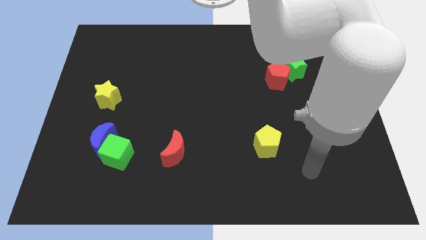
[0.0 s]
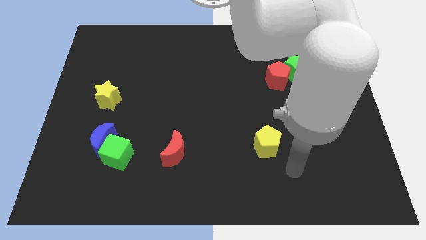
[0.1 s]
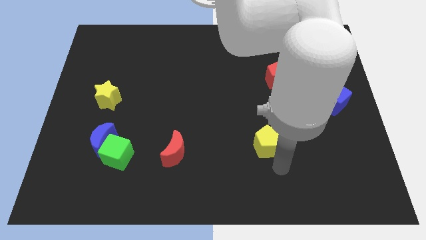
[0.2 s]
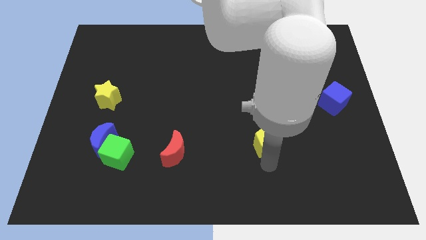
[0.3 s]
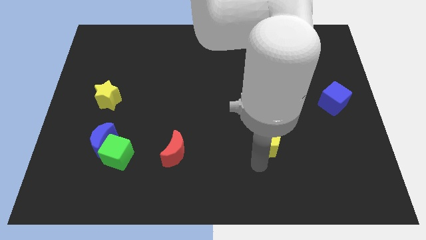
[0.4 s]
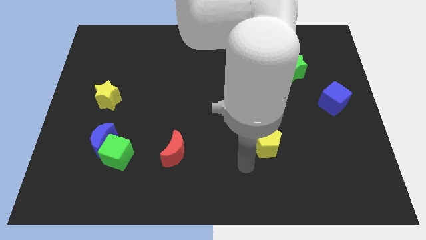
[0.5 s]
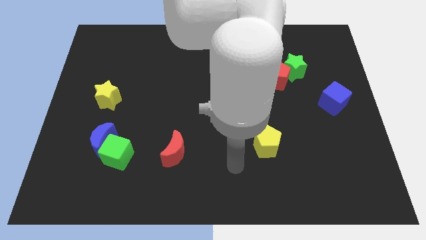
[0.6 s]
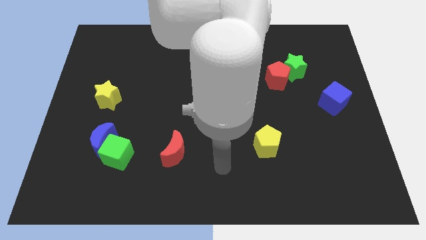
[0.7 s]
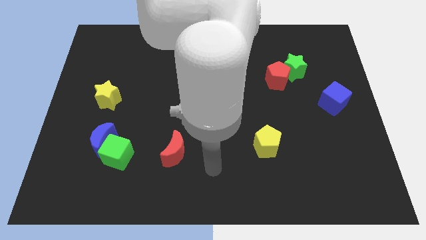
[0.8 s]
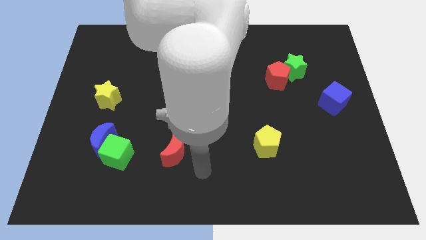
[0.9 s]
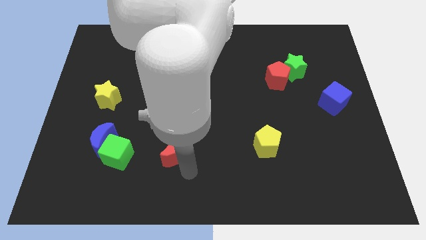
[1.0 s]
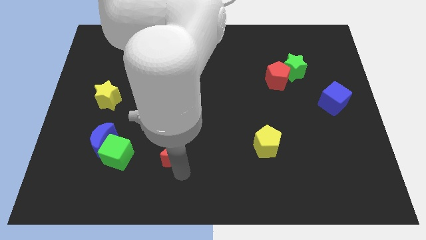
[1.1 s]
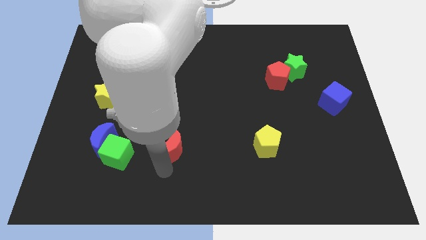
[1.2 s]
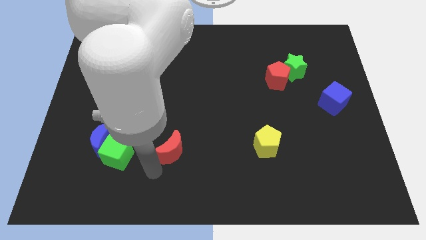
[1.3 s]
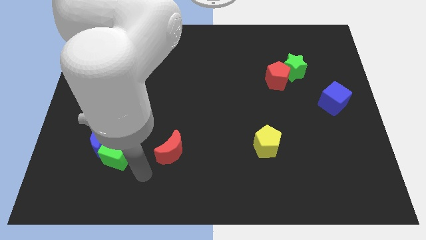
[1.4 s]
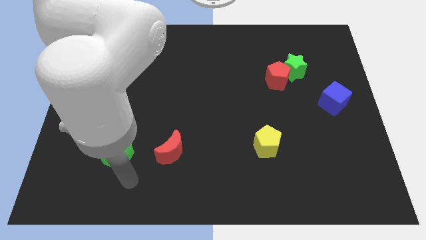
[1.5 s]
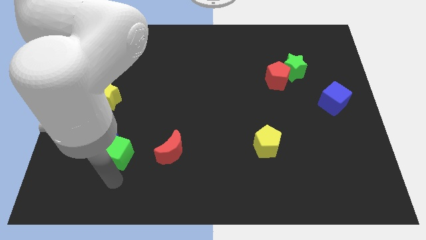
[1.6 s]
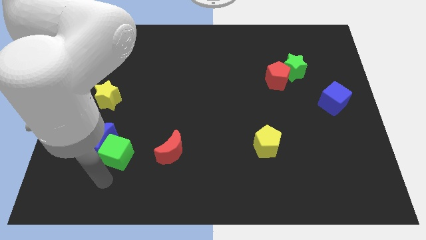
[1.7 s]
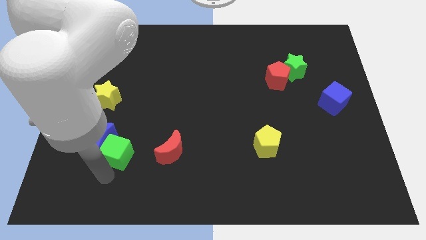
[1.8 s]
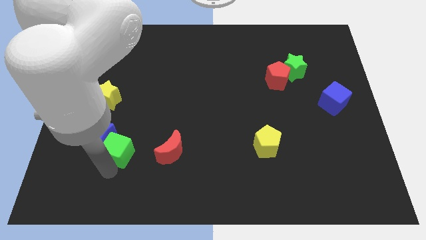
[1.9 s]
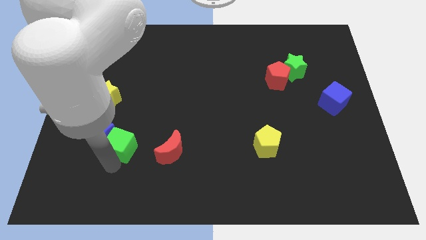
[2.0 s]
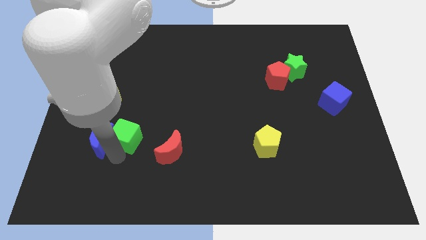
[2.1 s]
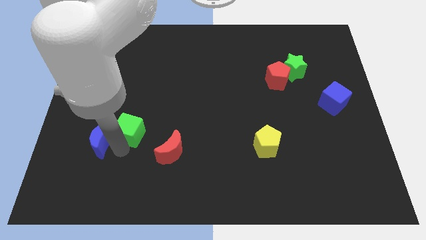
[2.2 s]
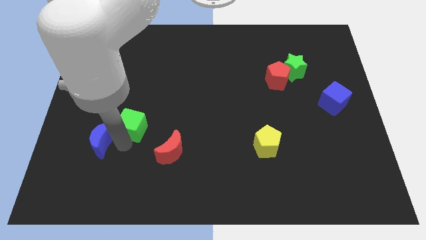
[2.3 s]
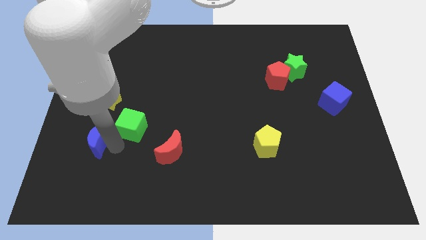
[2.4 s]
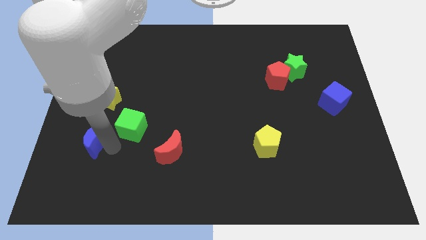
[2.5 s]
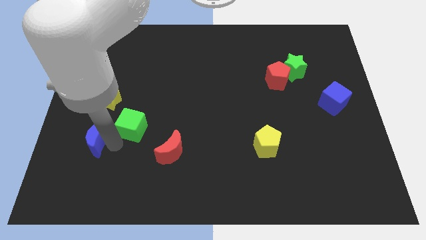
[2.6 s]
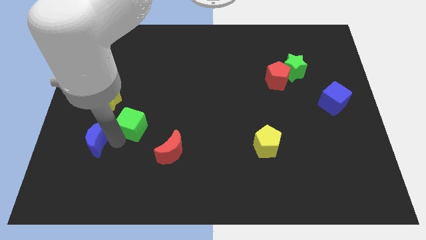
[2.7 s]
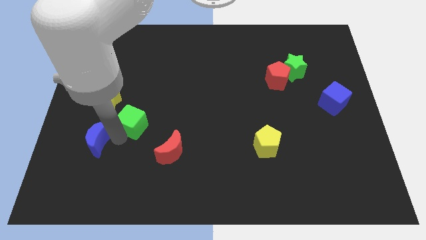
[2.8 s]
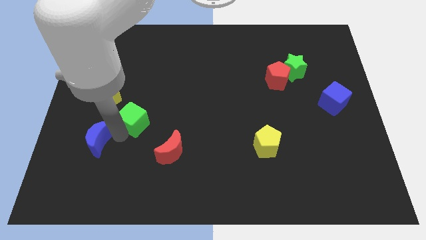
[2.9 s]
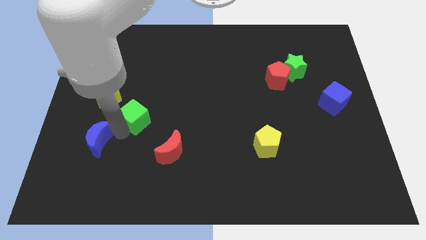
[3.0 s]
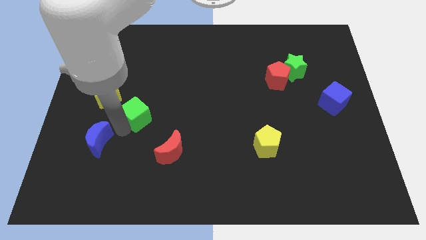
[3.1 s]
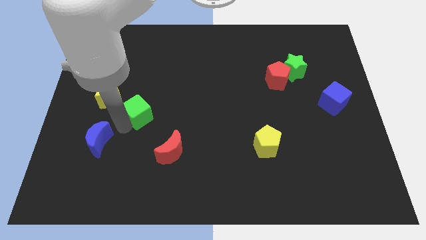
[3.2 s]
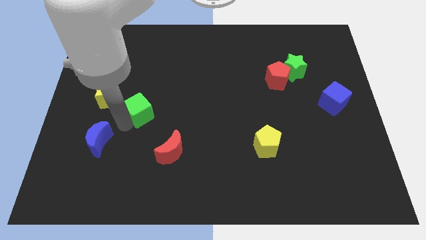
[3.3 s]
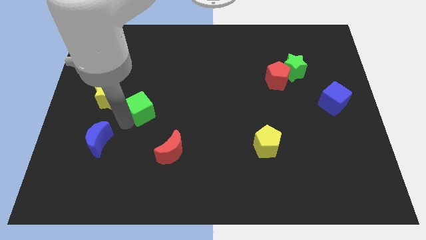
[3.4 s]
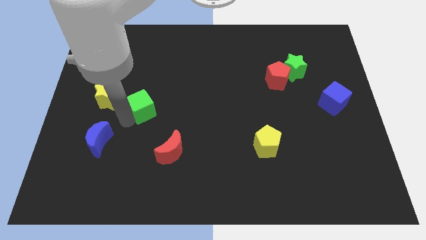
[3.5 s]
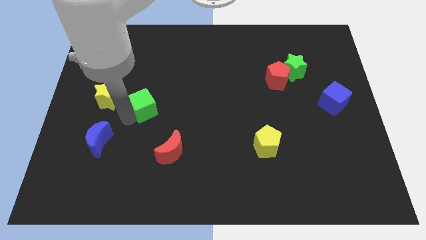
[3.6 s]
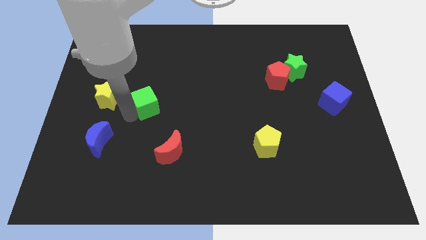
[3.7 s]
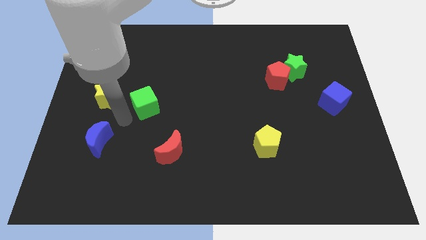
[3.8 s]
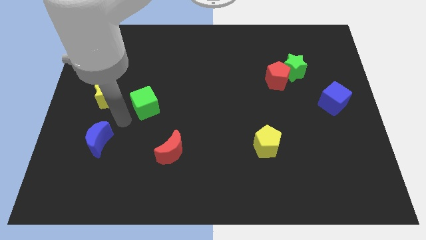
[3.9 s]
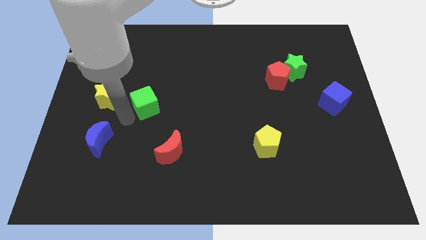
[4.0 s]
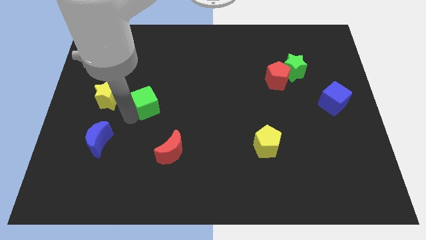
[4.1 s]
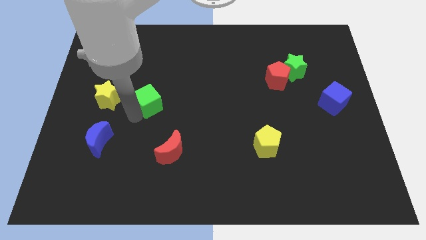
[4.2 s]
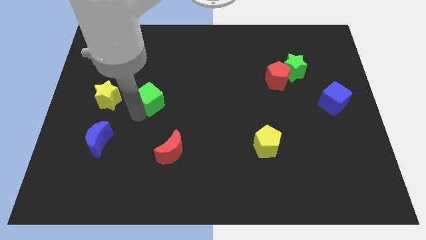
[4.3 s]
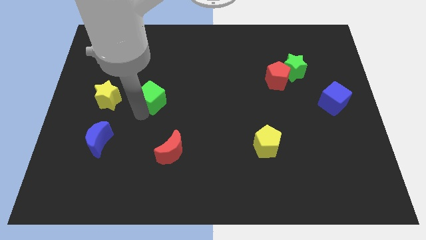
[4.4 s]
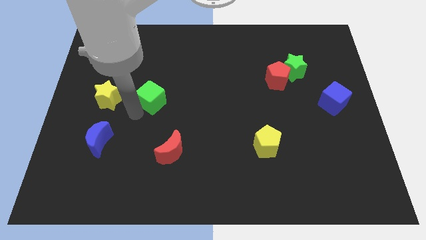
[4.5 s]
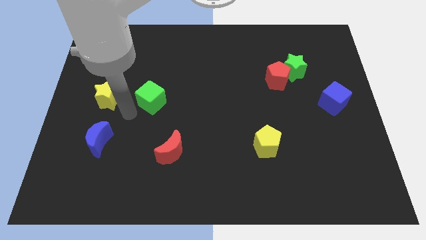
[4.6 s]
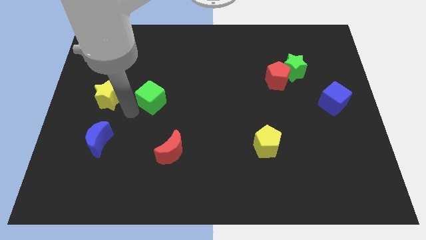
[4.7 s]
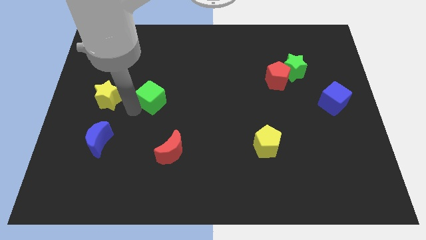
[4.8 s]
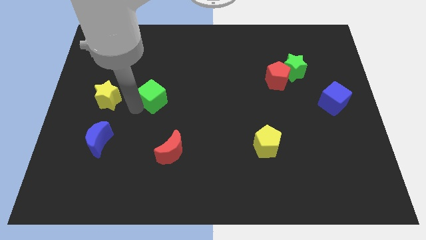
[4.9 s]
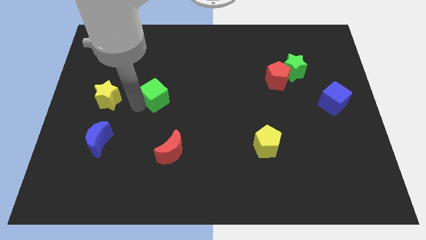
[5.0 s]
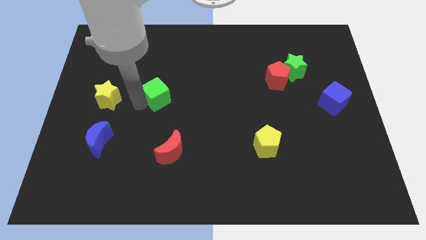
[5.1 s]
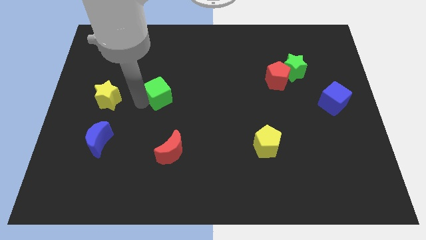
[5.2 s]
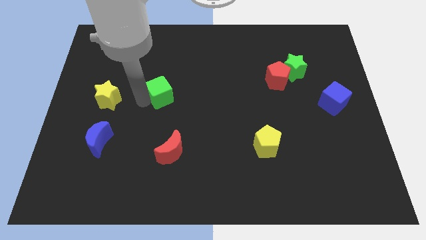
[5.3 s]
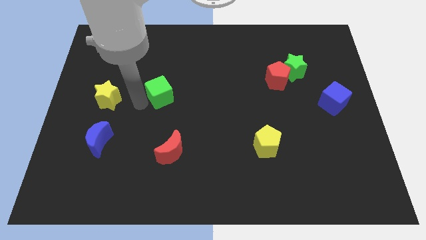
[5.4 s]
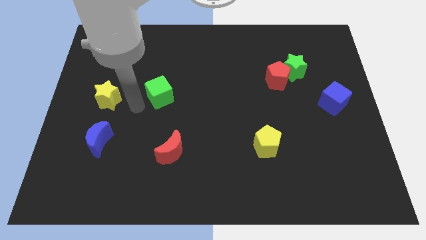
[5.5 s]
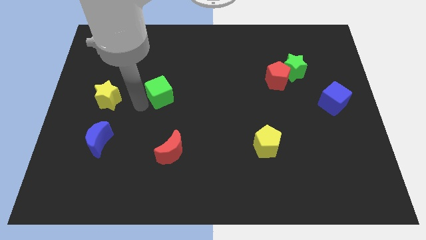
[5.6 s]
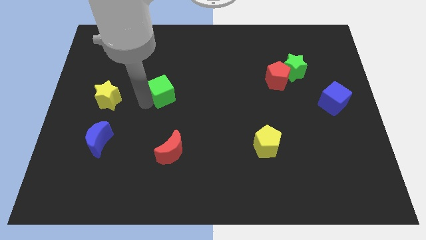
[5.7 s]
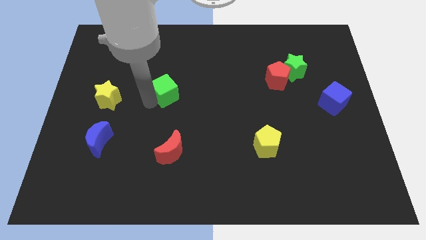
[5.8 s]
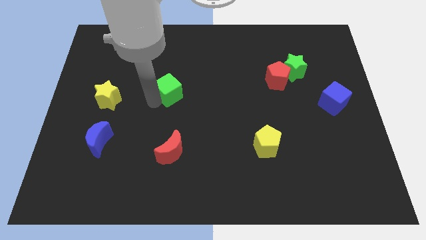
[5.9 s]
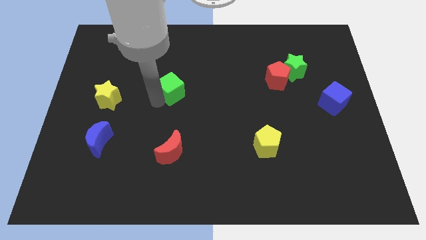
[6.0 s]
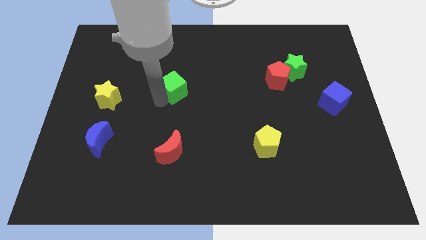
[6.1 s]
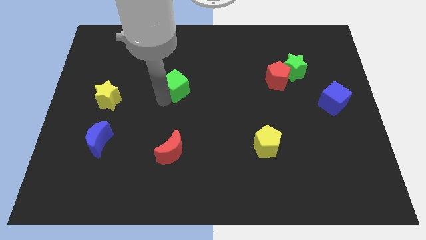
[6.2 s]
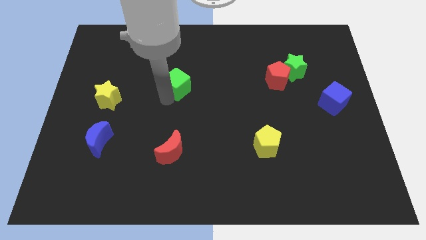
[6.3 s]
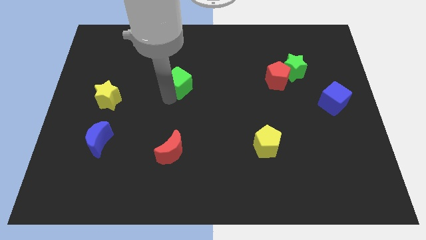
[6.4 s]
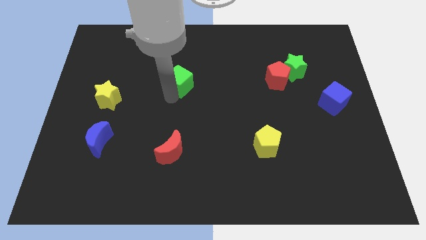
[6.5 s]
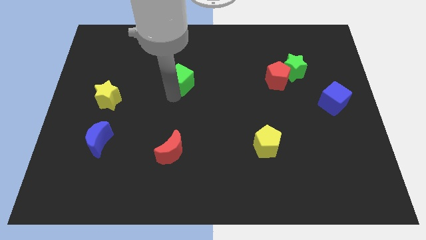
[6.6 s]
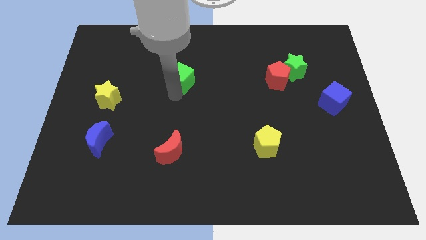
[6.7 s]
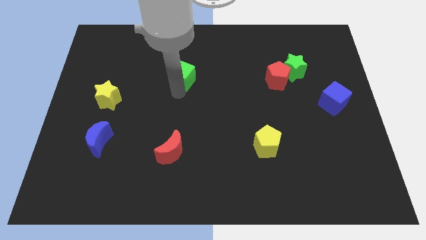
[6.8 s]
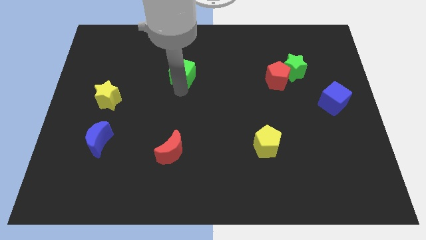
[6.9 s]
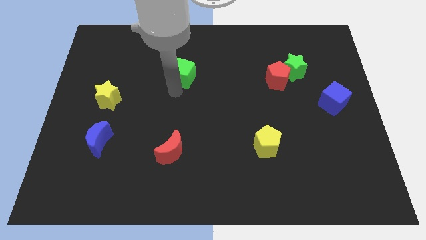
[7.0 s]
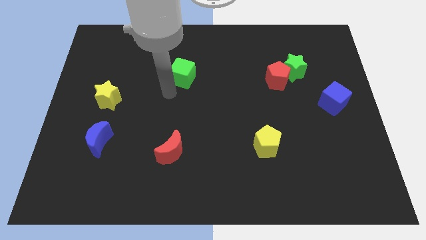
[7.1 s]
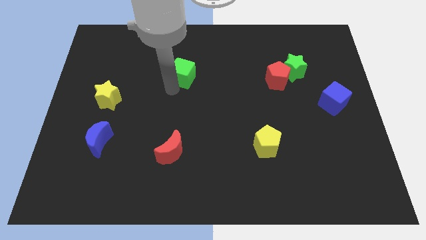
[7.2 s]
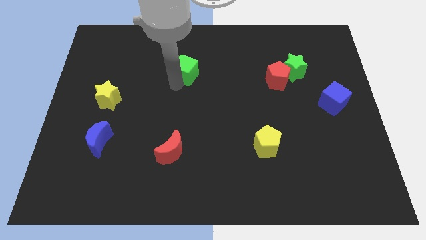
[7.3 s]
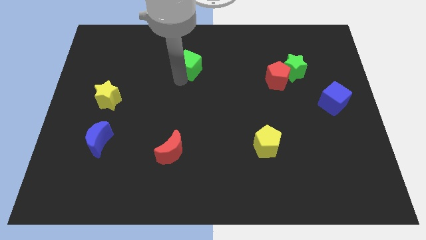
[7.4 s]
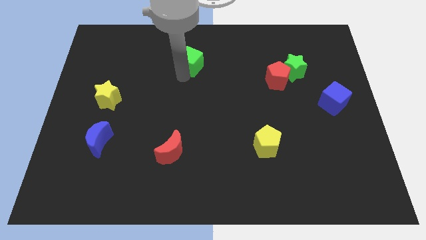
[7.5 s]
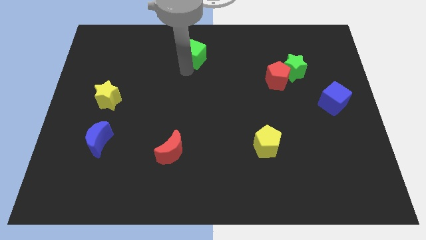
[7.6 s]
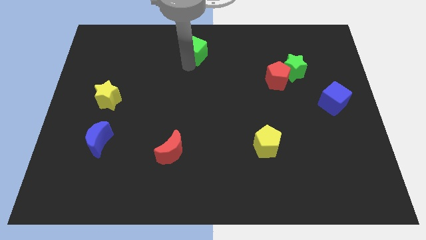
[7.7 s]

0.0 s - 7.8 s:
move the green cube to the top side
